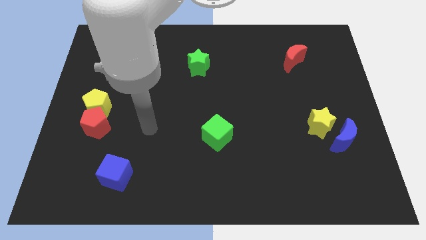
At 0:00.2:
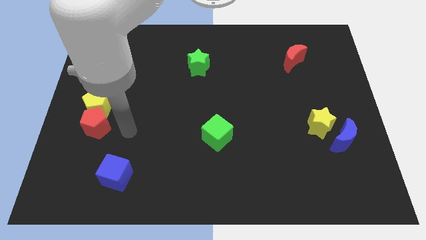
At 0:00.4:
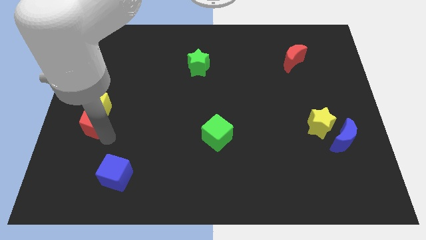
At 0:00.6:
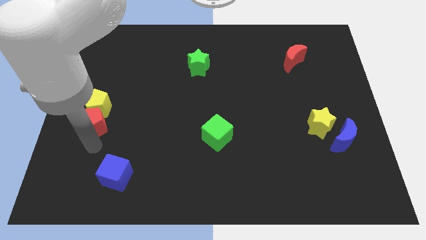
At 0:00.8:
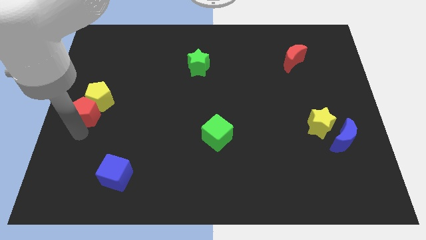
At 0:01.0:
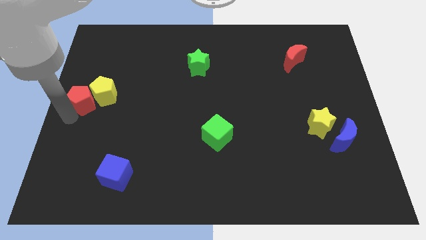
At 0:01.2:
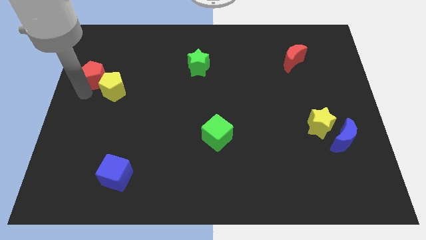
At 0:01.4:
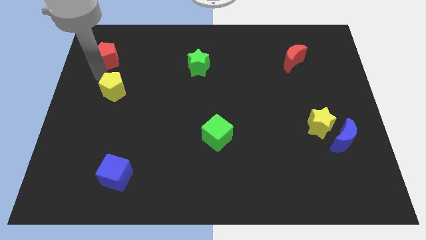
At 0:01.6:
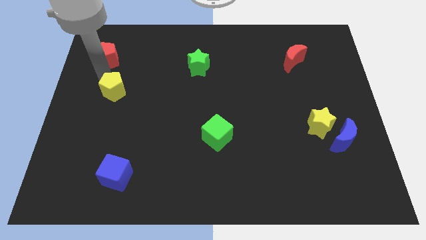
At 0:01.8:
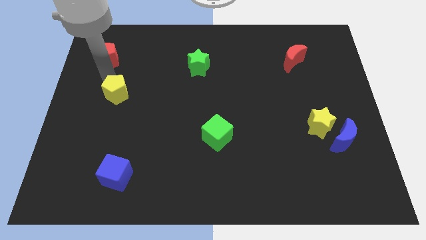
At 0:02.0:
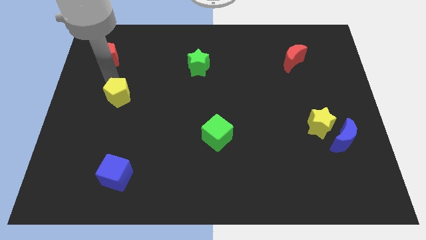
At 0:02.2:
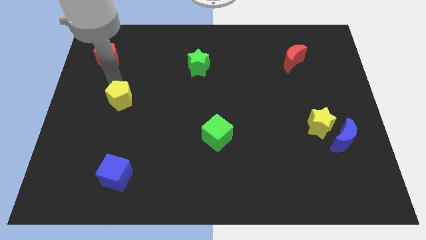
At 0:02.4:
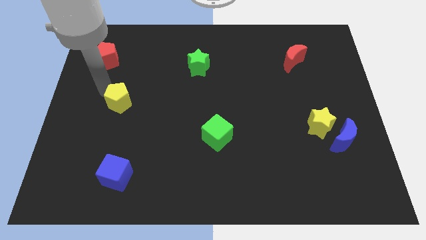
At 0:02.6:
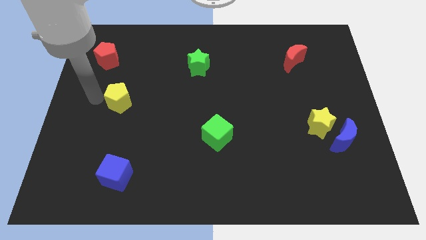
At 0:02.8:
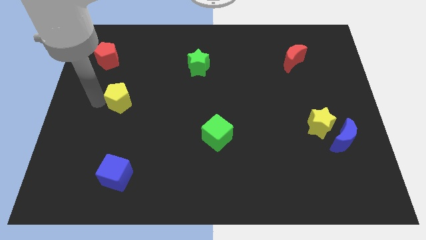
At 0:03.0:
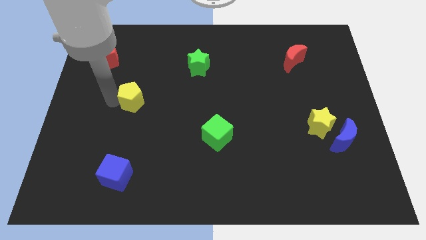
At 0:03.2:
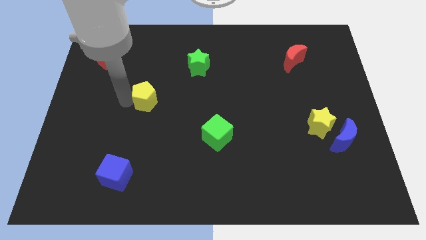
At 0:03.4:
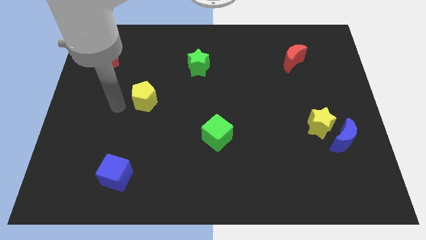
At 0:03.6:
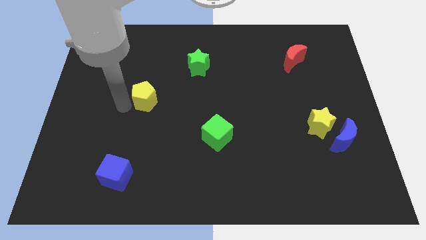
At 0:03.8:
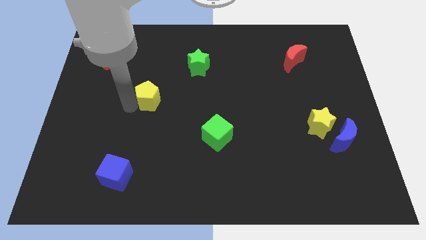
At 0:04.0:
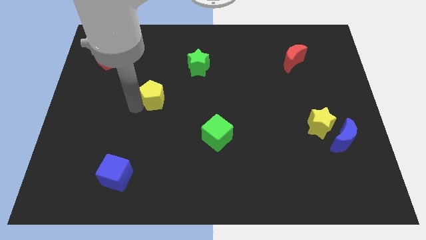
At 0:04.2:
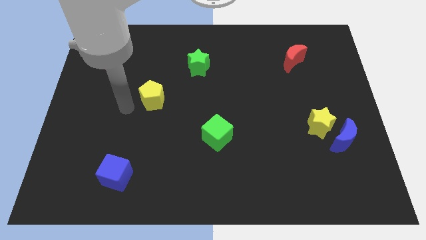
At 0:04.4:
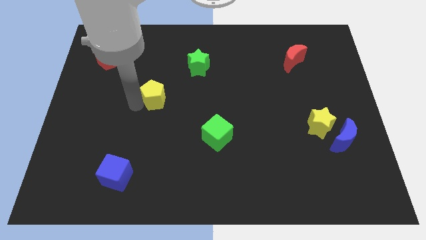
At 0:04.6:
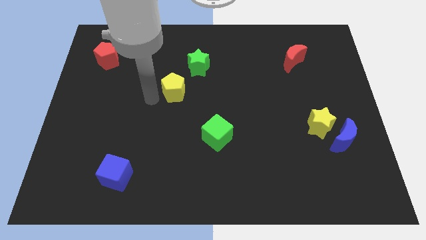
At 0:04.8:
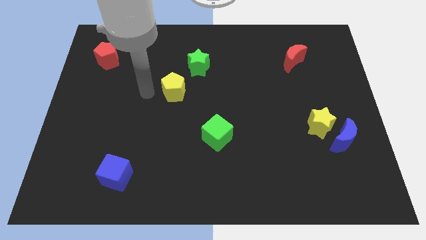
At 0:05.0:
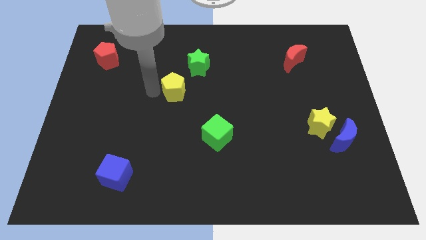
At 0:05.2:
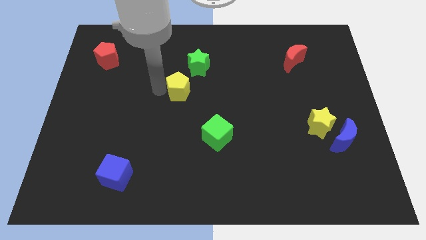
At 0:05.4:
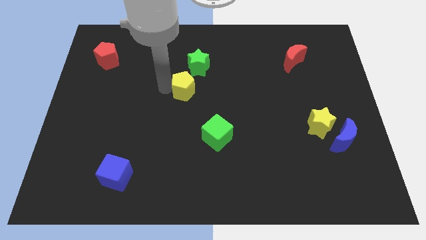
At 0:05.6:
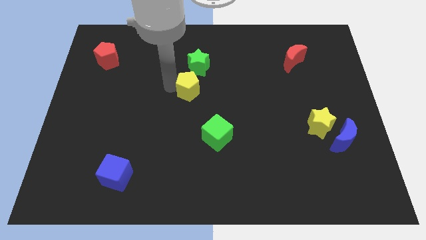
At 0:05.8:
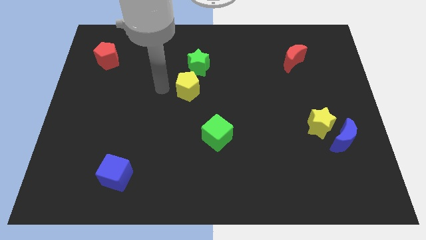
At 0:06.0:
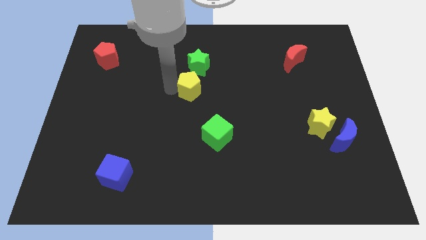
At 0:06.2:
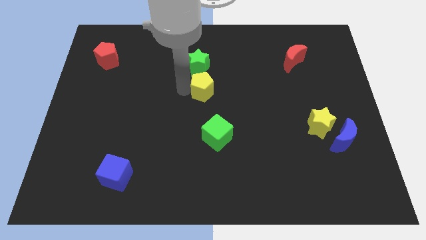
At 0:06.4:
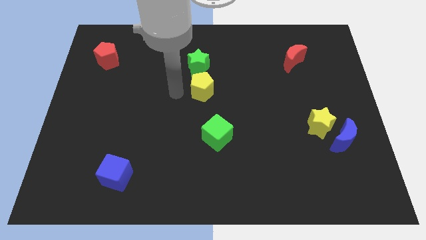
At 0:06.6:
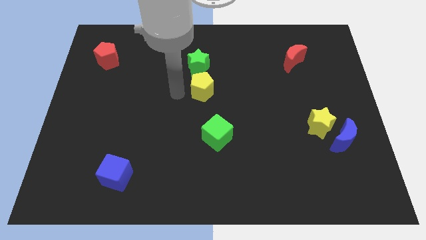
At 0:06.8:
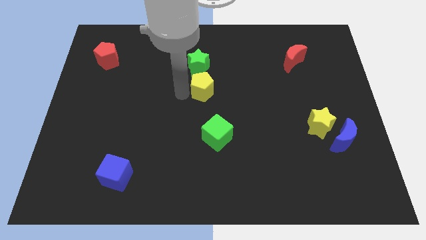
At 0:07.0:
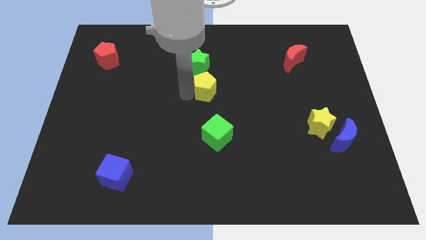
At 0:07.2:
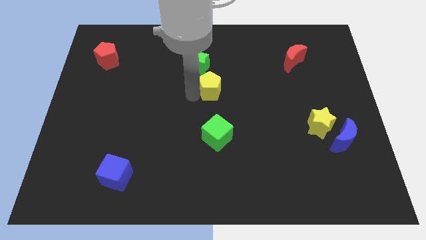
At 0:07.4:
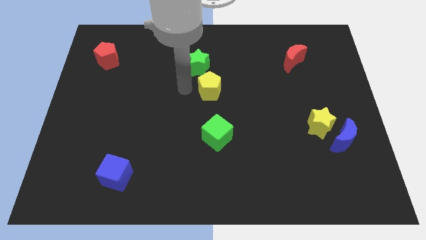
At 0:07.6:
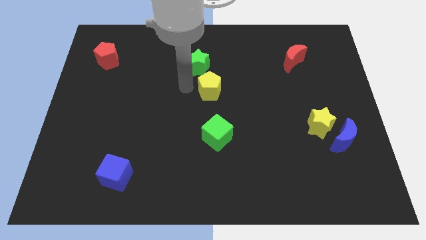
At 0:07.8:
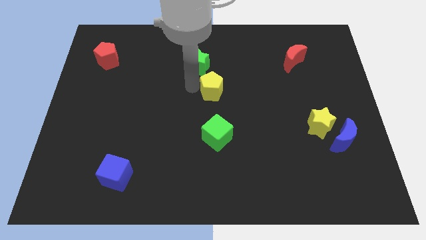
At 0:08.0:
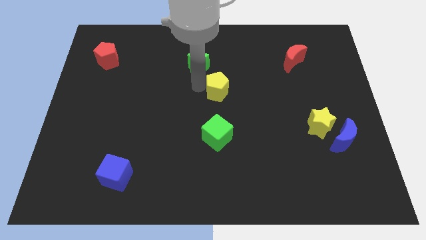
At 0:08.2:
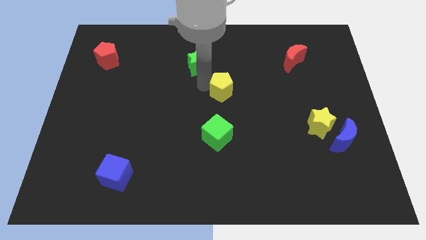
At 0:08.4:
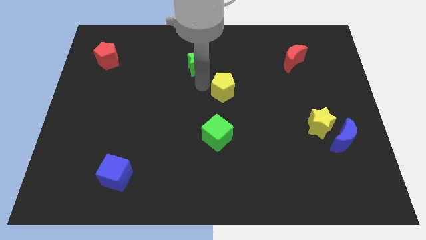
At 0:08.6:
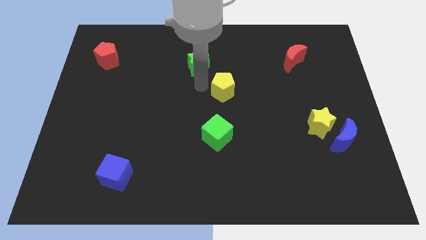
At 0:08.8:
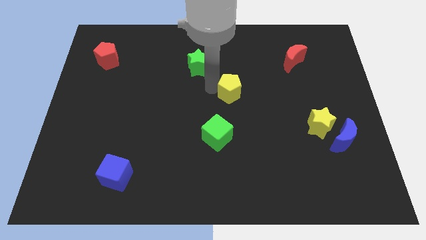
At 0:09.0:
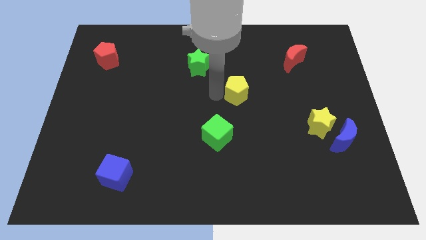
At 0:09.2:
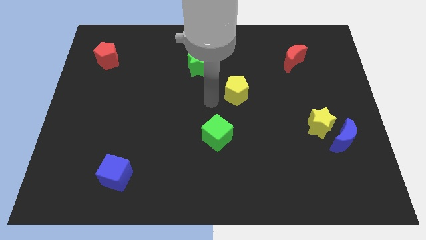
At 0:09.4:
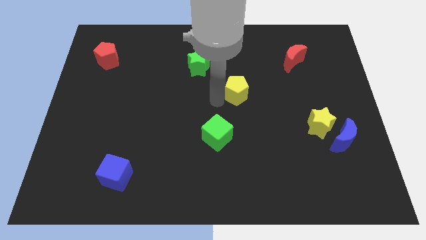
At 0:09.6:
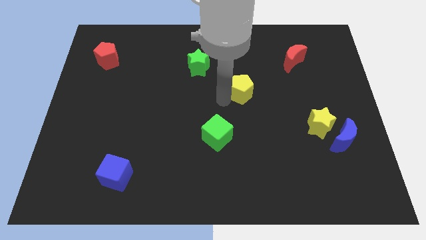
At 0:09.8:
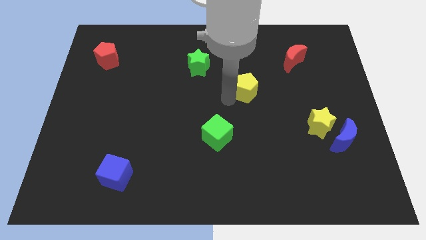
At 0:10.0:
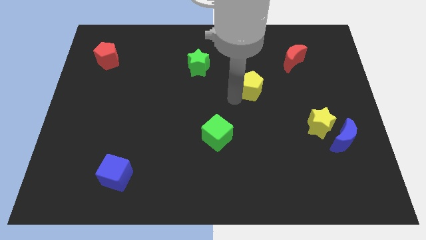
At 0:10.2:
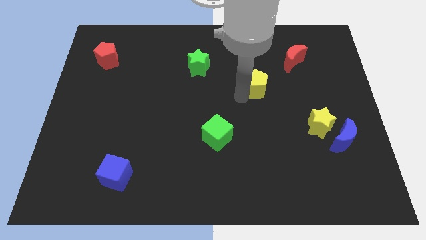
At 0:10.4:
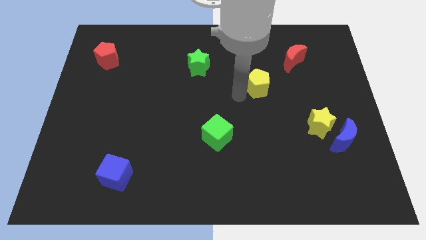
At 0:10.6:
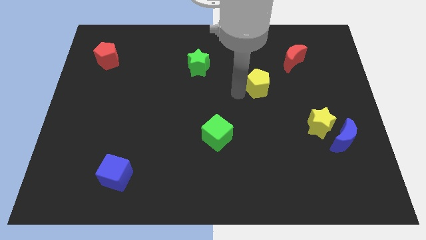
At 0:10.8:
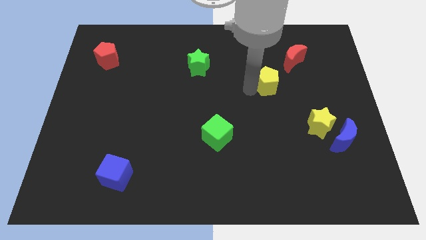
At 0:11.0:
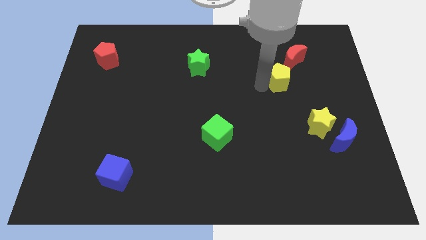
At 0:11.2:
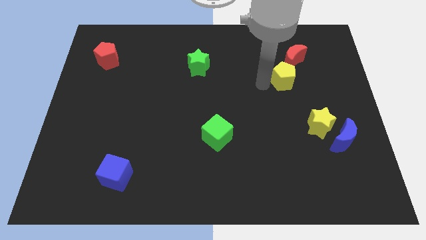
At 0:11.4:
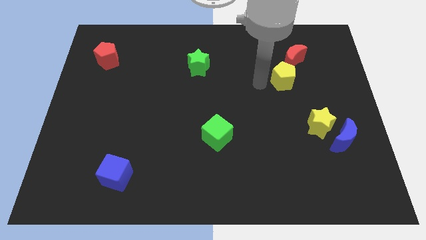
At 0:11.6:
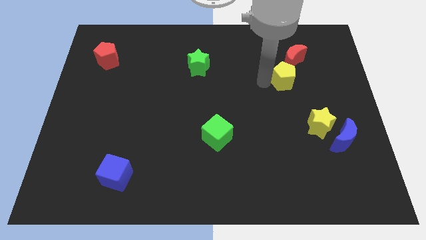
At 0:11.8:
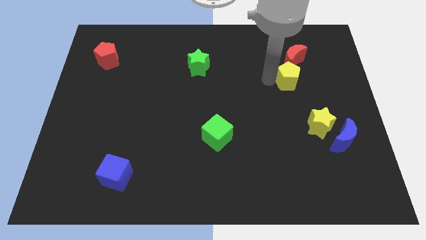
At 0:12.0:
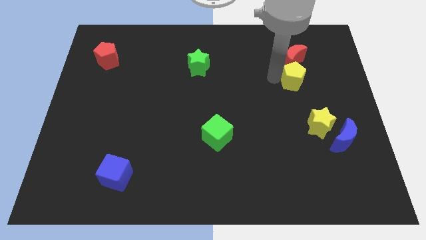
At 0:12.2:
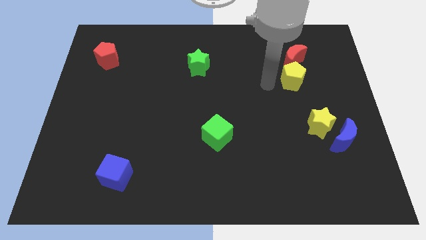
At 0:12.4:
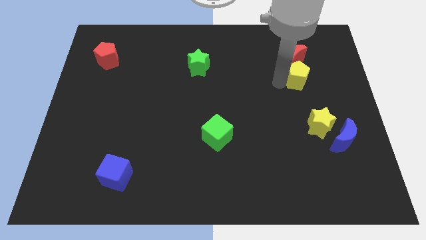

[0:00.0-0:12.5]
move the yellow pentagon to the bottom right side of the red moon

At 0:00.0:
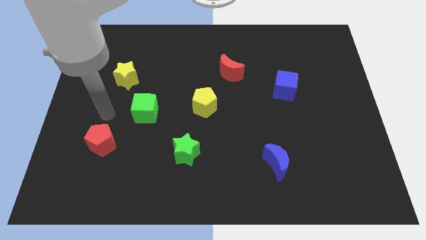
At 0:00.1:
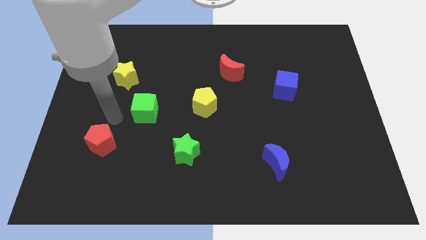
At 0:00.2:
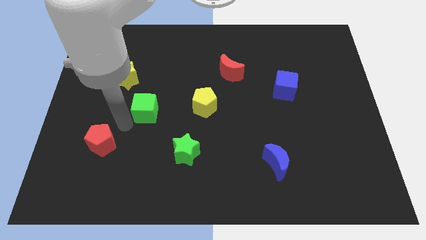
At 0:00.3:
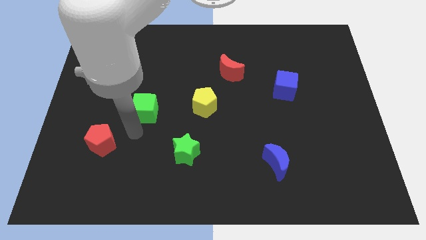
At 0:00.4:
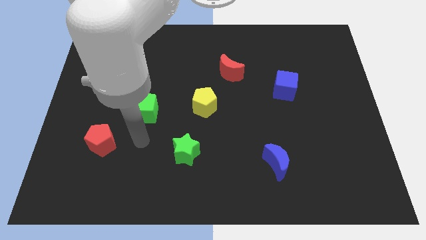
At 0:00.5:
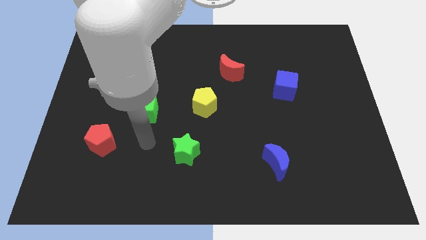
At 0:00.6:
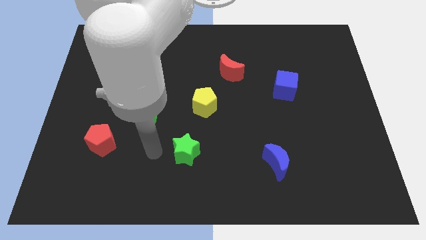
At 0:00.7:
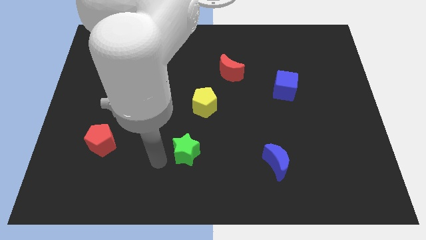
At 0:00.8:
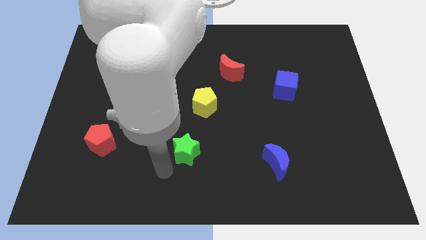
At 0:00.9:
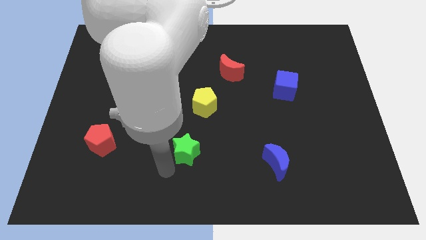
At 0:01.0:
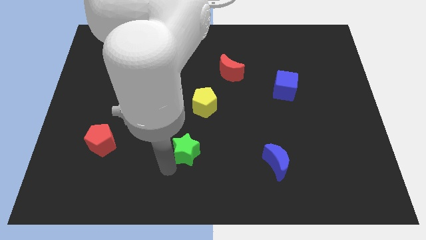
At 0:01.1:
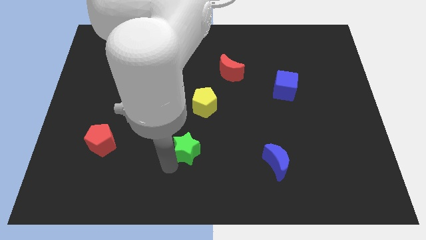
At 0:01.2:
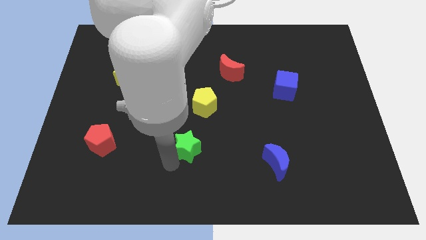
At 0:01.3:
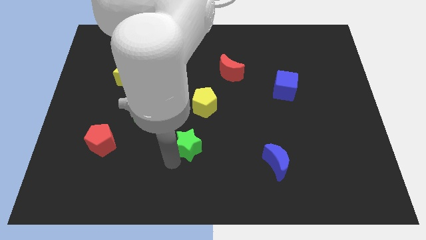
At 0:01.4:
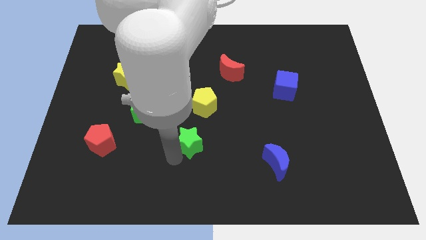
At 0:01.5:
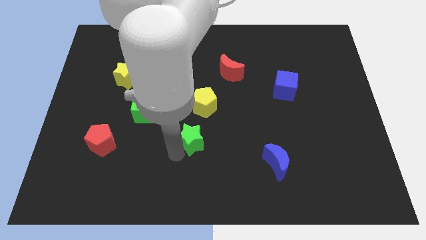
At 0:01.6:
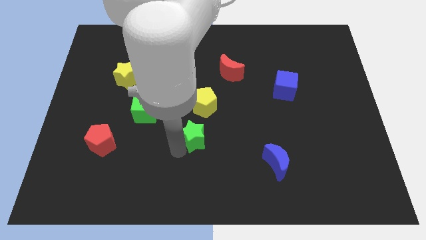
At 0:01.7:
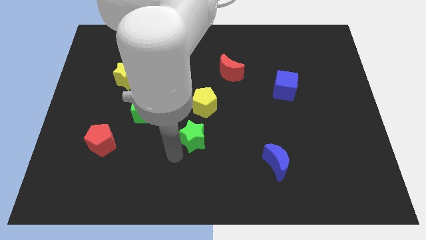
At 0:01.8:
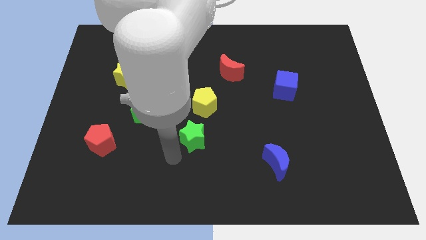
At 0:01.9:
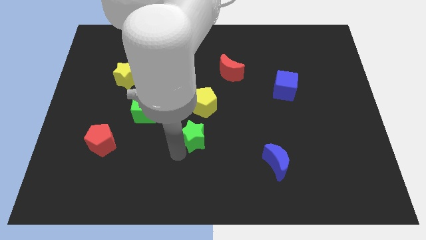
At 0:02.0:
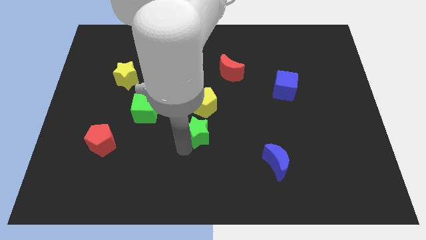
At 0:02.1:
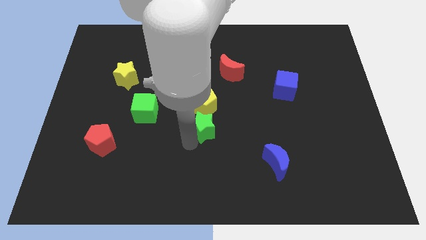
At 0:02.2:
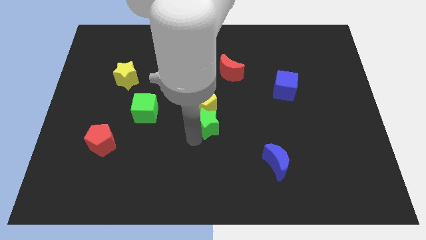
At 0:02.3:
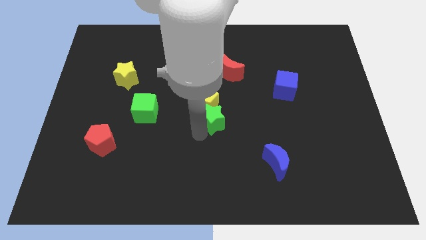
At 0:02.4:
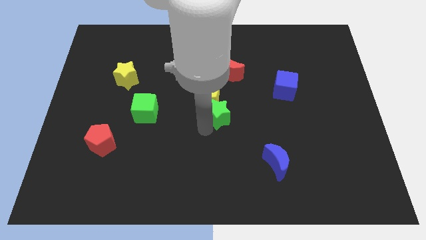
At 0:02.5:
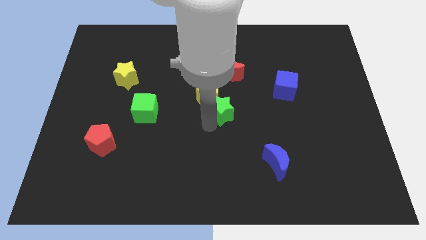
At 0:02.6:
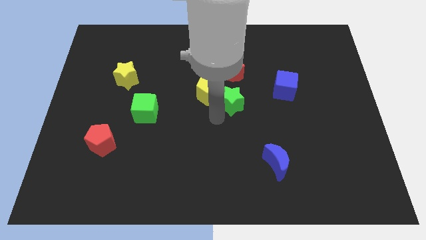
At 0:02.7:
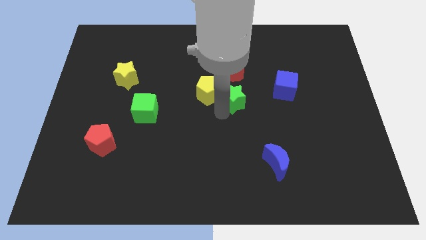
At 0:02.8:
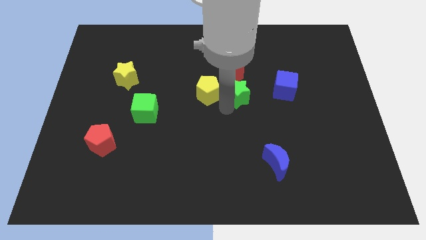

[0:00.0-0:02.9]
put the green star to the bottom right of the red moon
